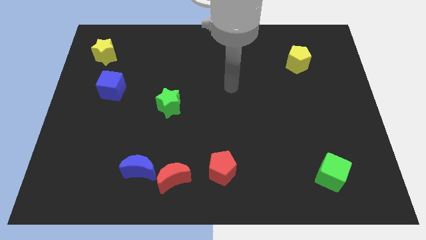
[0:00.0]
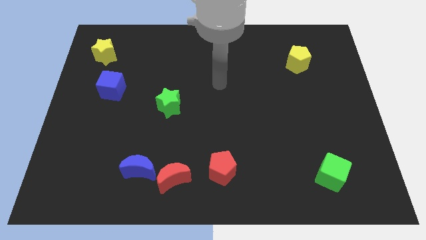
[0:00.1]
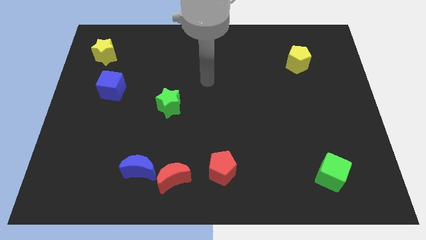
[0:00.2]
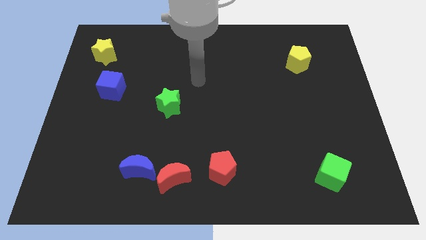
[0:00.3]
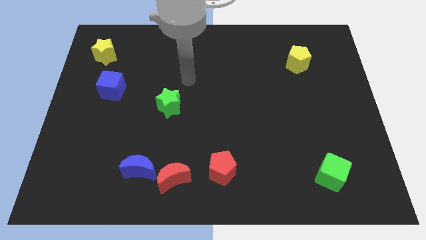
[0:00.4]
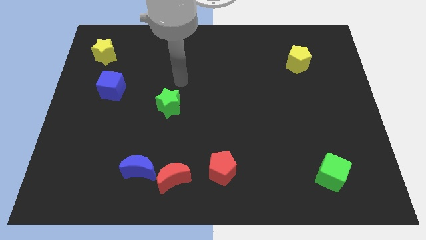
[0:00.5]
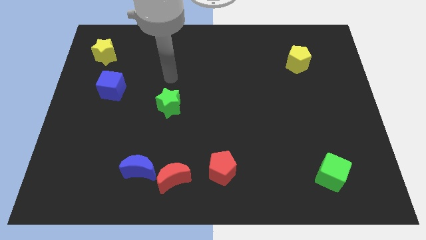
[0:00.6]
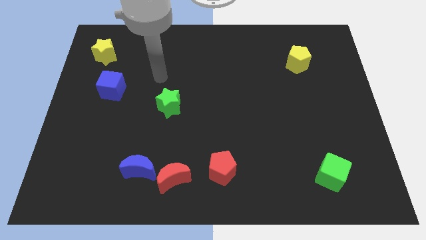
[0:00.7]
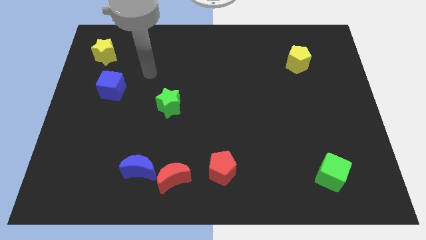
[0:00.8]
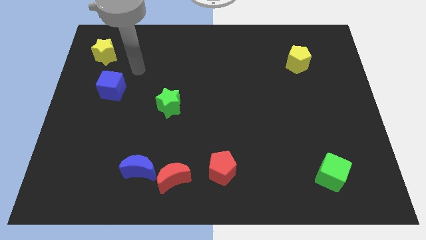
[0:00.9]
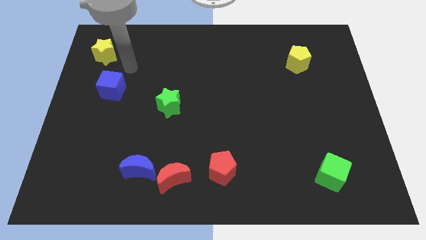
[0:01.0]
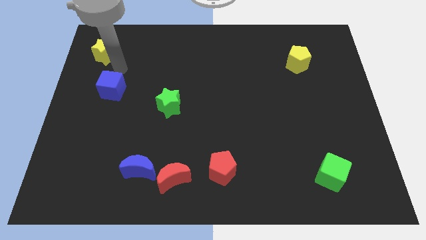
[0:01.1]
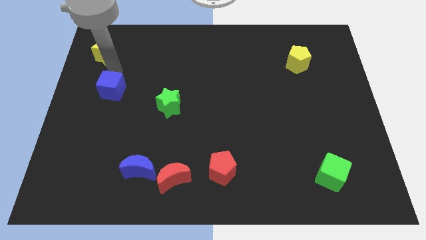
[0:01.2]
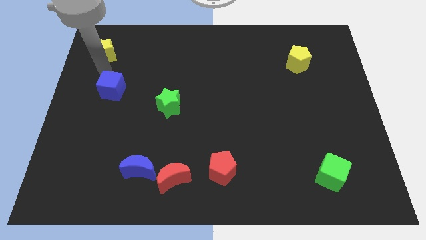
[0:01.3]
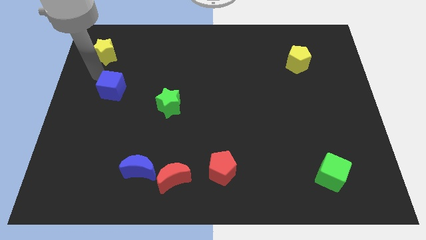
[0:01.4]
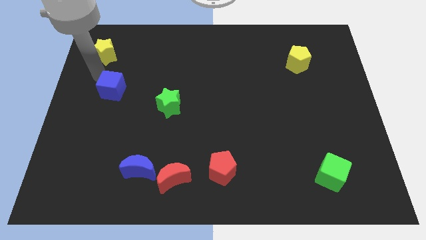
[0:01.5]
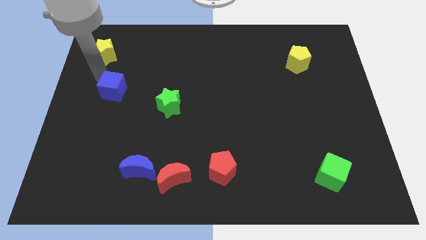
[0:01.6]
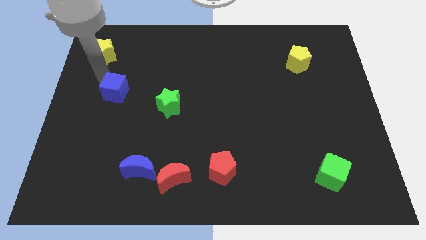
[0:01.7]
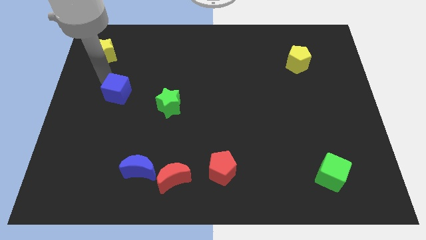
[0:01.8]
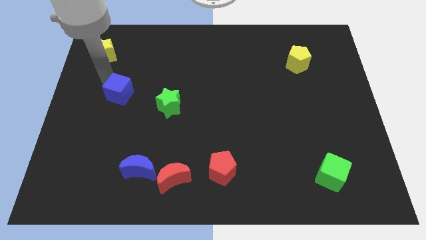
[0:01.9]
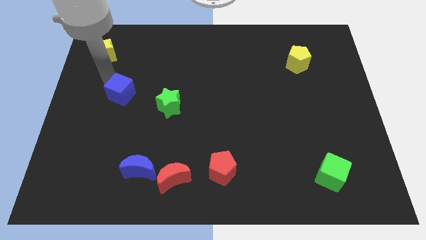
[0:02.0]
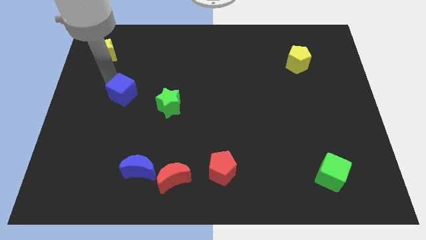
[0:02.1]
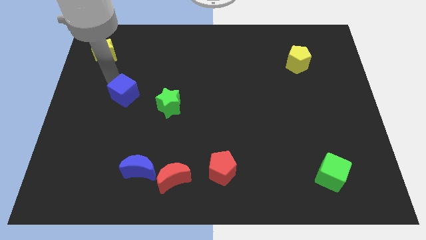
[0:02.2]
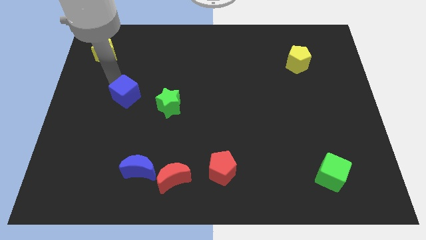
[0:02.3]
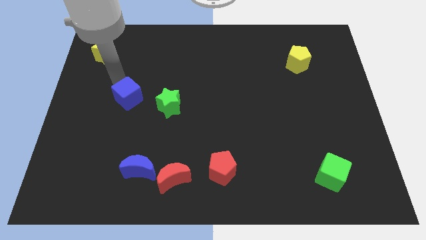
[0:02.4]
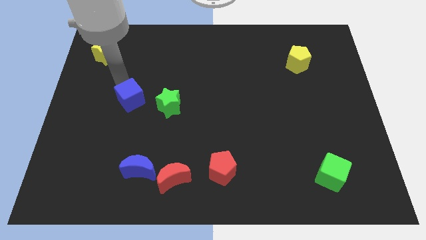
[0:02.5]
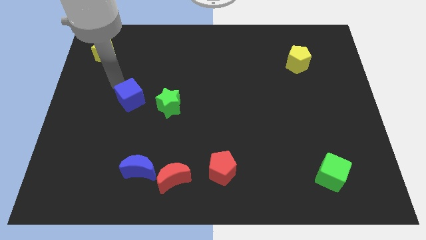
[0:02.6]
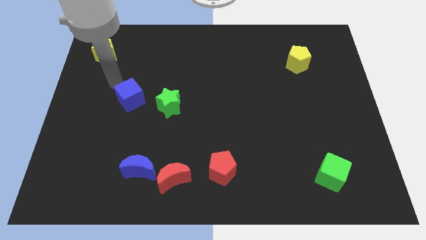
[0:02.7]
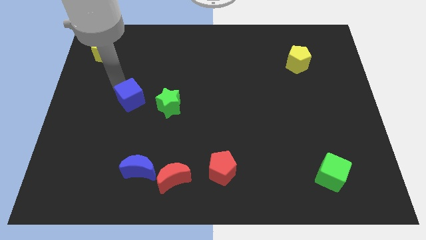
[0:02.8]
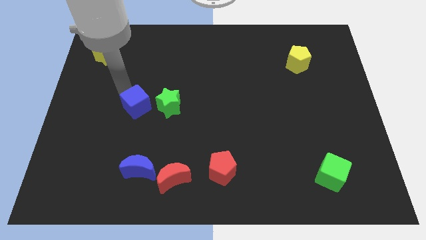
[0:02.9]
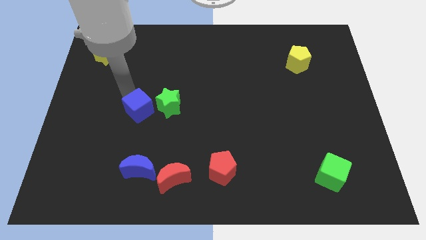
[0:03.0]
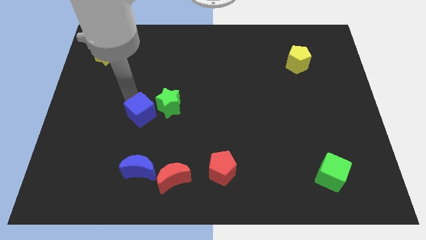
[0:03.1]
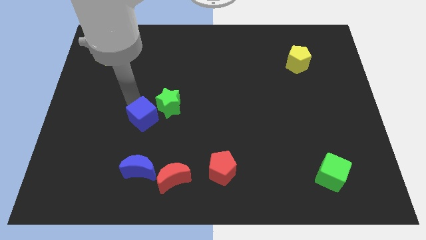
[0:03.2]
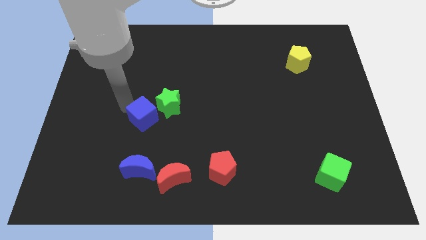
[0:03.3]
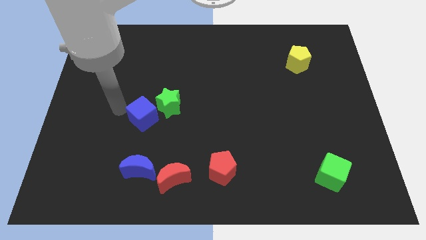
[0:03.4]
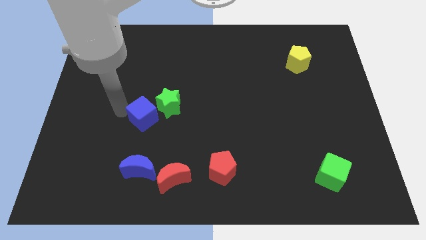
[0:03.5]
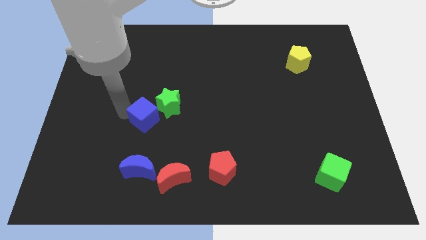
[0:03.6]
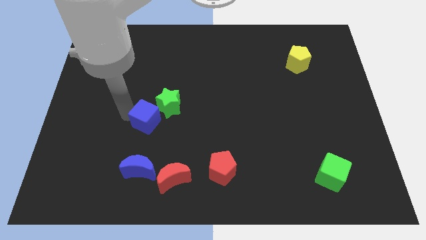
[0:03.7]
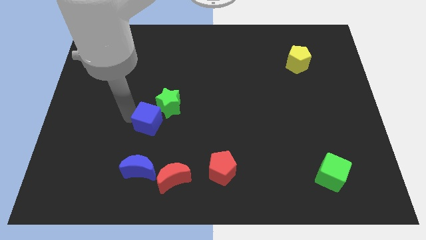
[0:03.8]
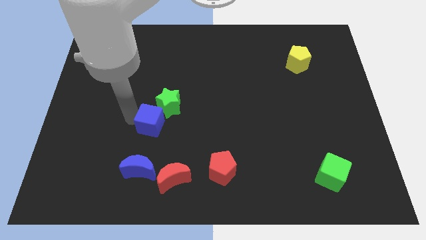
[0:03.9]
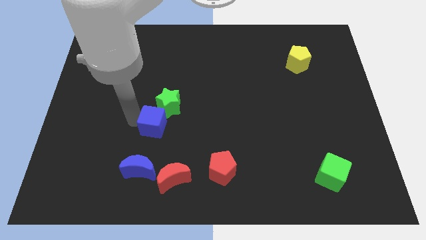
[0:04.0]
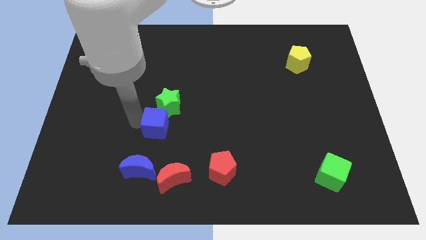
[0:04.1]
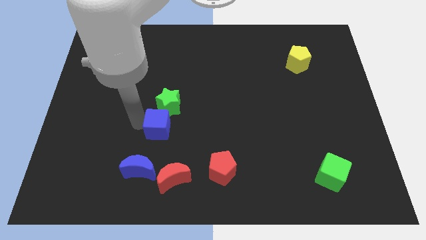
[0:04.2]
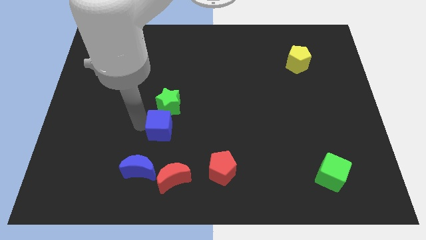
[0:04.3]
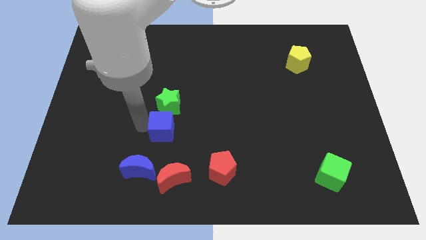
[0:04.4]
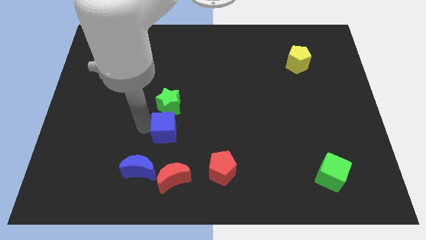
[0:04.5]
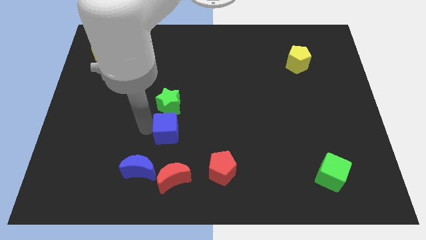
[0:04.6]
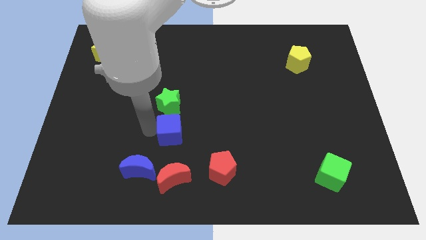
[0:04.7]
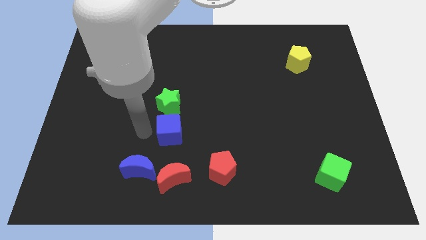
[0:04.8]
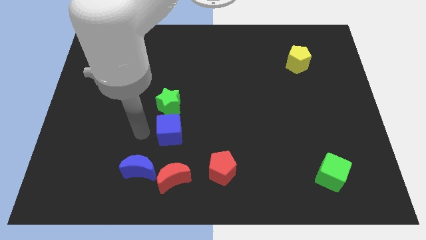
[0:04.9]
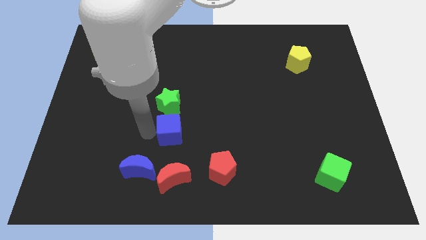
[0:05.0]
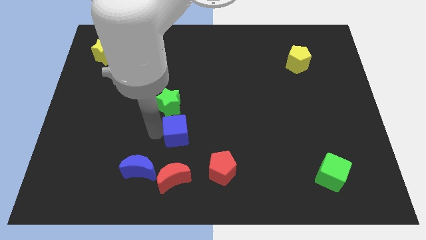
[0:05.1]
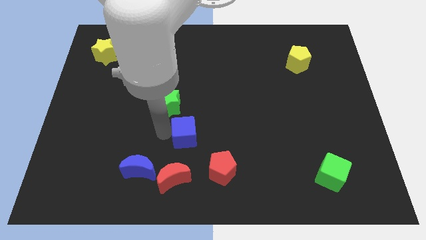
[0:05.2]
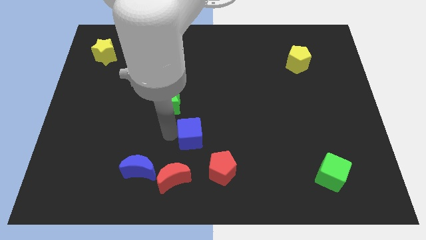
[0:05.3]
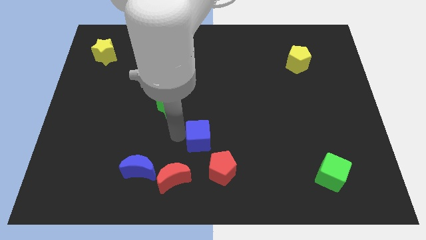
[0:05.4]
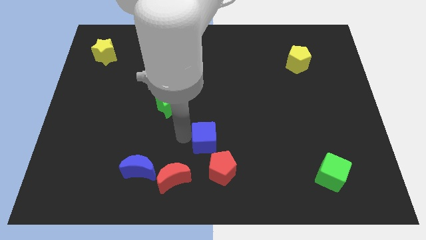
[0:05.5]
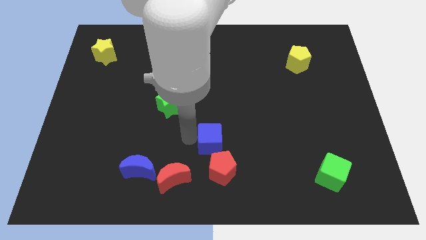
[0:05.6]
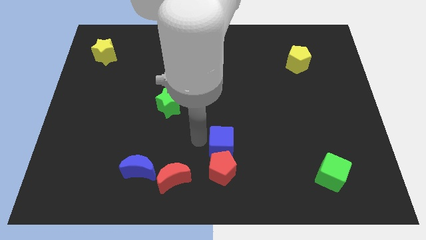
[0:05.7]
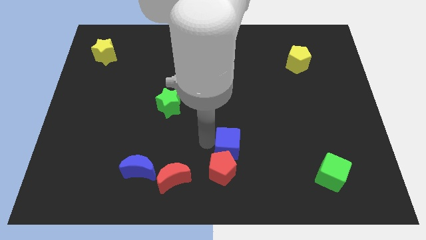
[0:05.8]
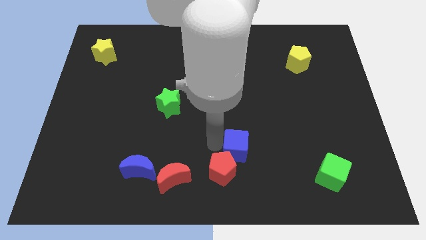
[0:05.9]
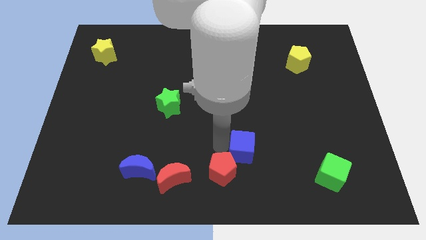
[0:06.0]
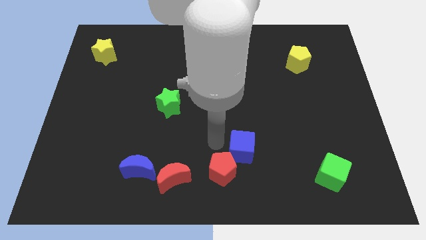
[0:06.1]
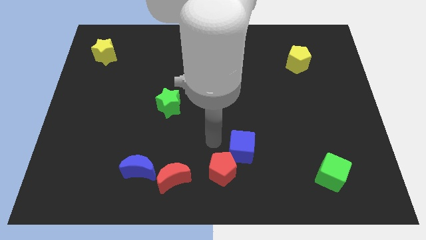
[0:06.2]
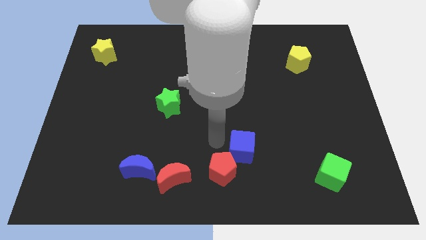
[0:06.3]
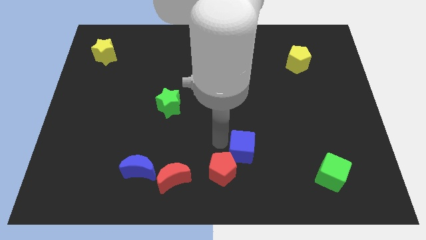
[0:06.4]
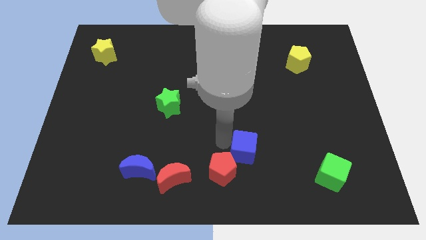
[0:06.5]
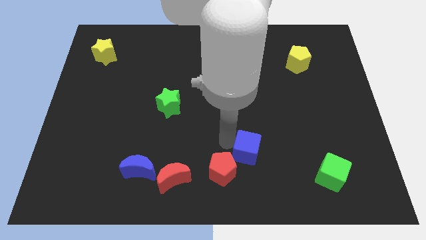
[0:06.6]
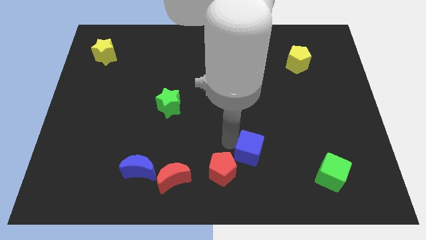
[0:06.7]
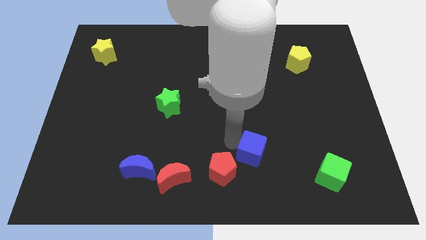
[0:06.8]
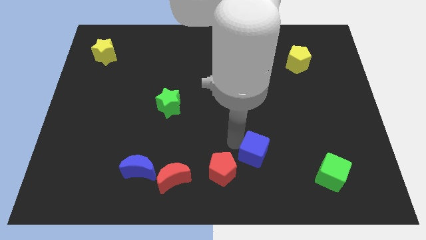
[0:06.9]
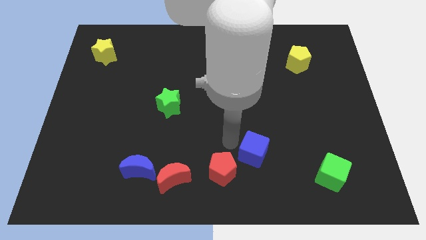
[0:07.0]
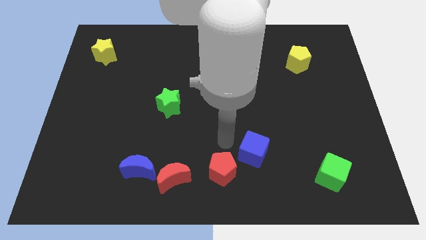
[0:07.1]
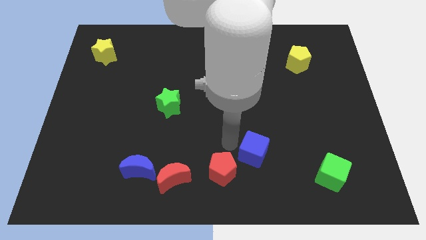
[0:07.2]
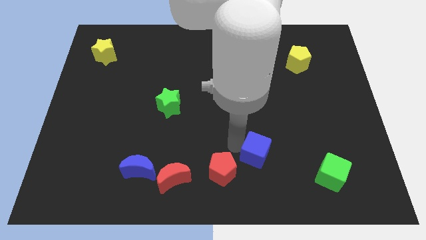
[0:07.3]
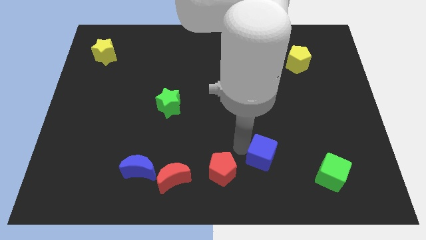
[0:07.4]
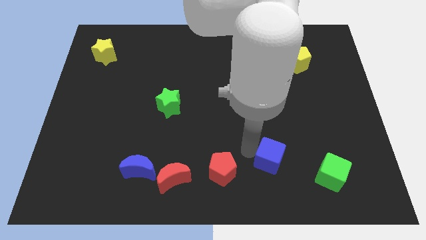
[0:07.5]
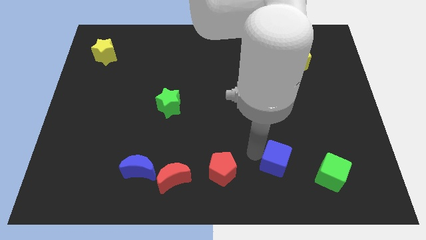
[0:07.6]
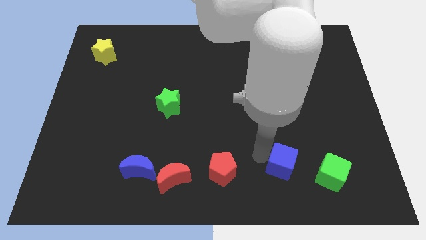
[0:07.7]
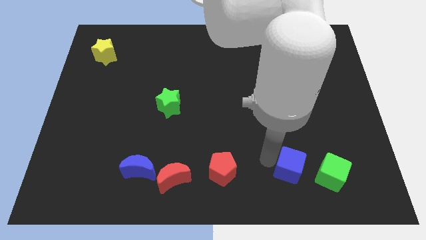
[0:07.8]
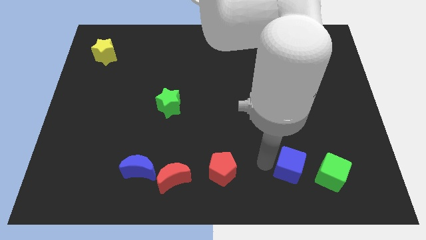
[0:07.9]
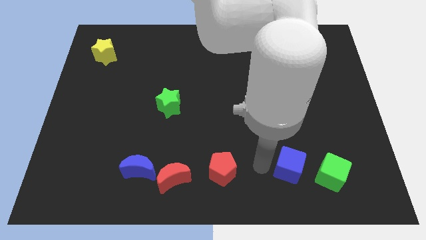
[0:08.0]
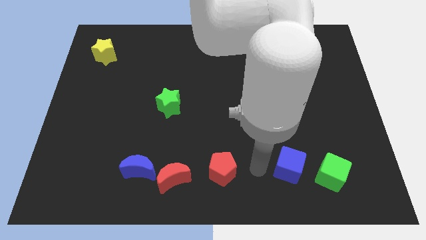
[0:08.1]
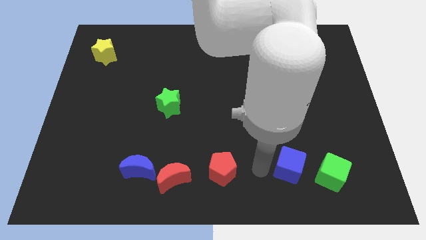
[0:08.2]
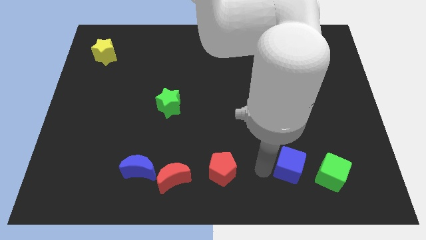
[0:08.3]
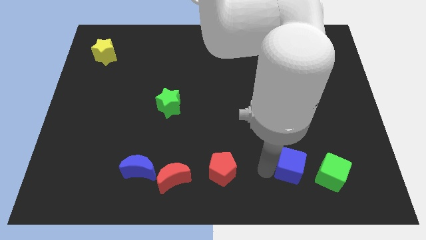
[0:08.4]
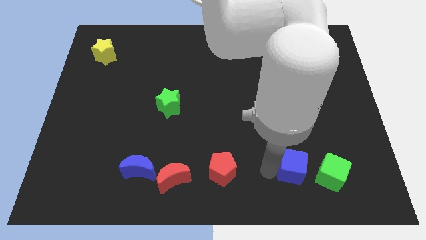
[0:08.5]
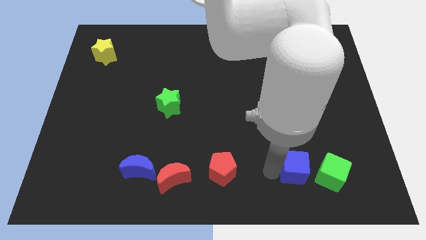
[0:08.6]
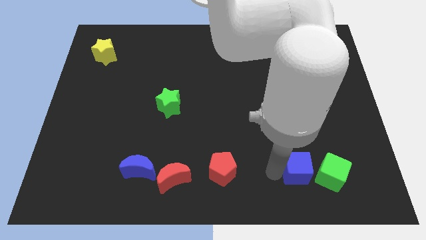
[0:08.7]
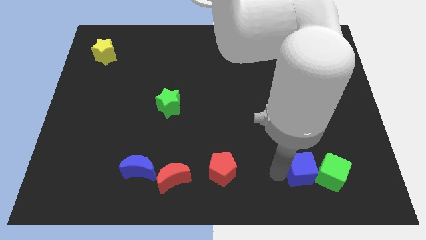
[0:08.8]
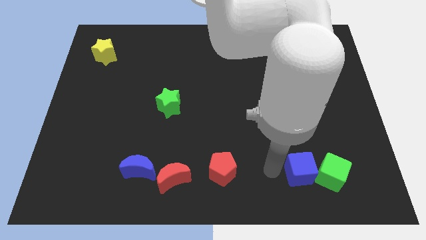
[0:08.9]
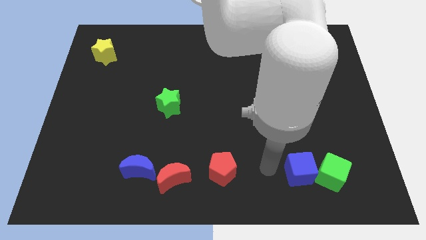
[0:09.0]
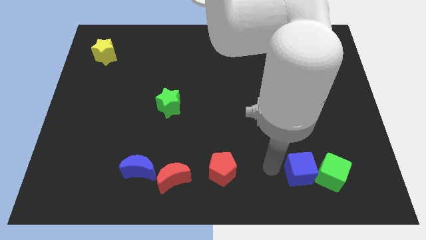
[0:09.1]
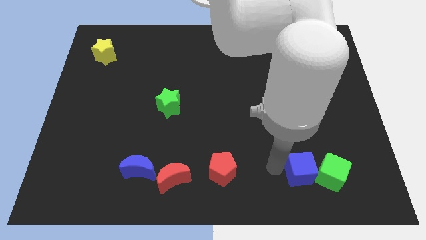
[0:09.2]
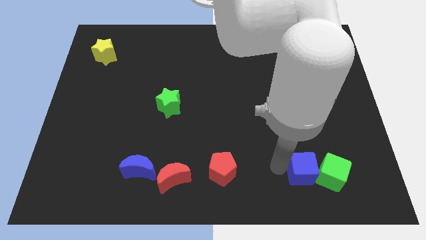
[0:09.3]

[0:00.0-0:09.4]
push the blue cube to the green cube
